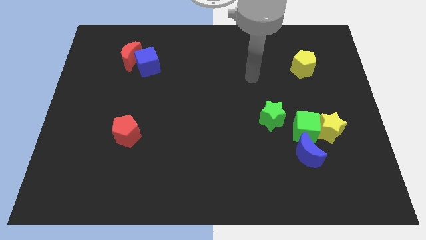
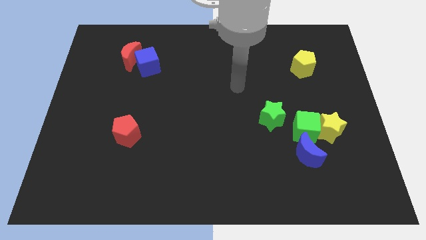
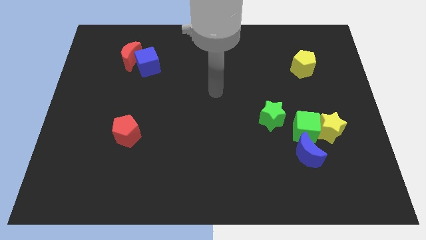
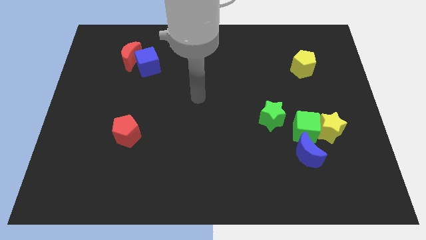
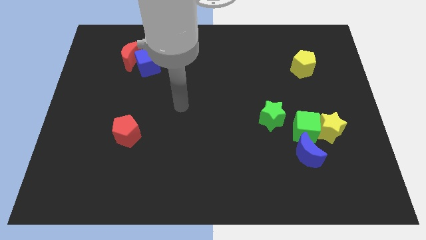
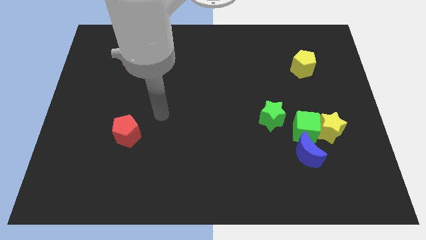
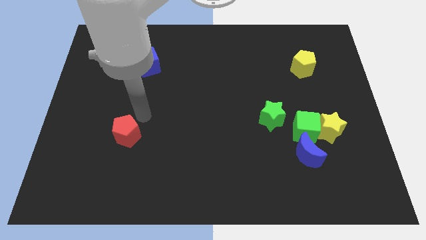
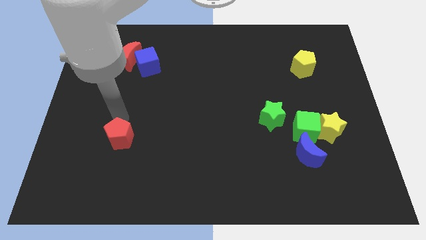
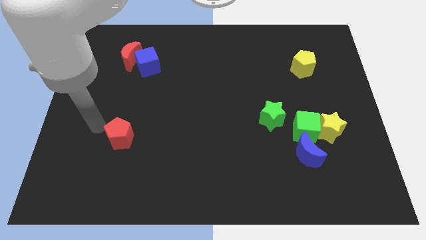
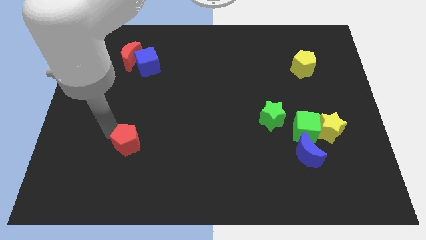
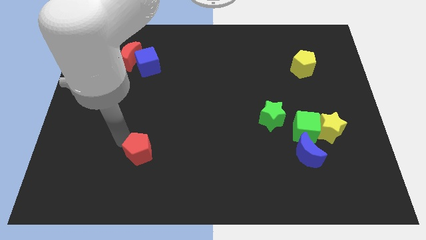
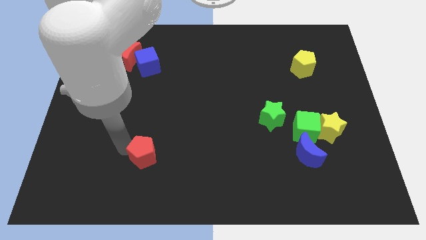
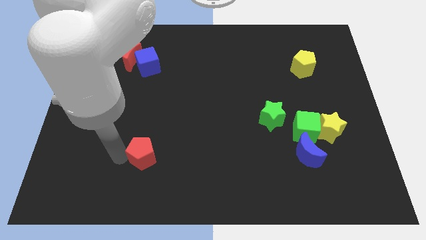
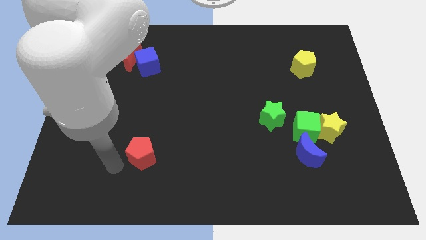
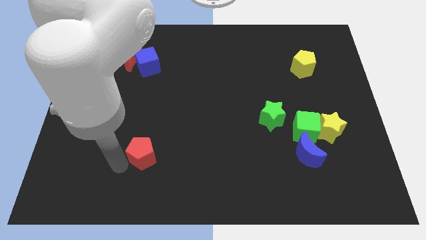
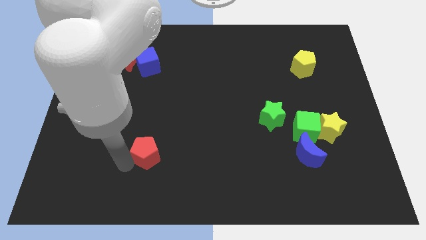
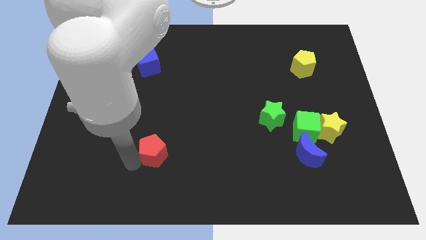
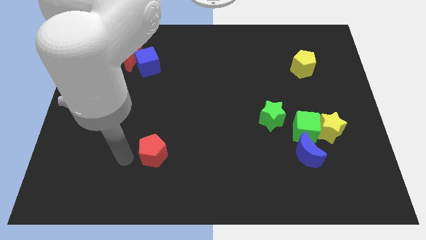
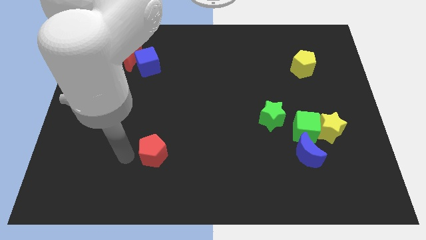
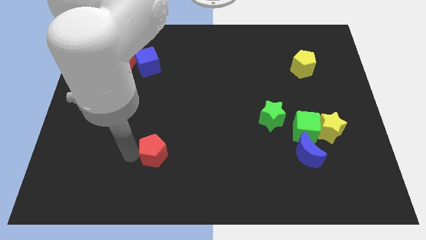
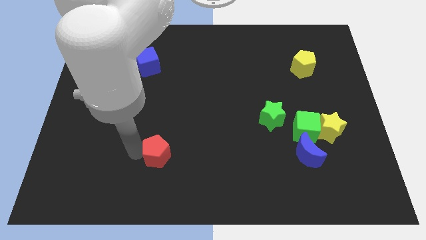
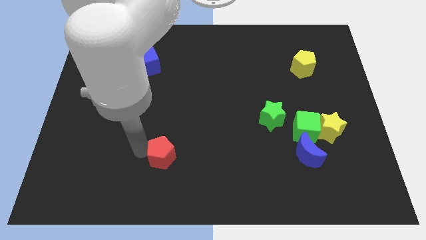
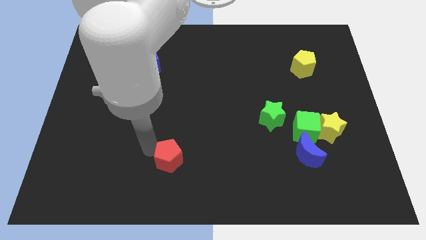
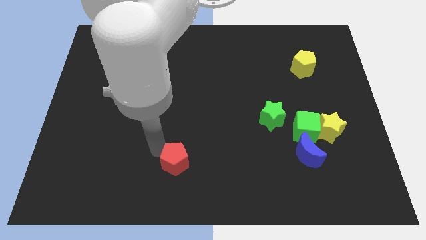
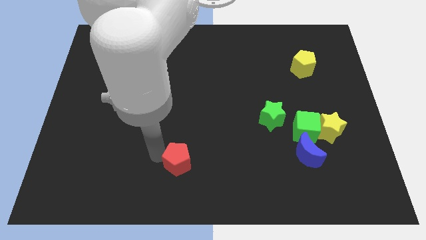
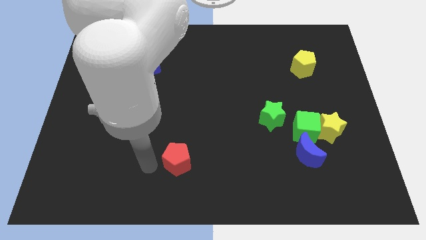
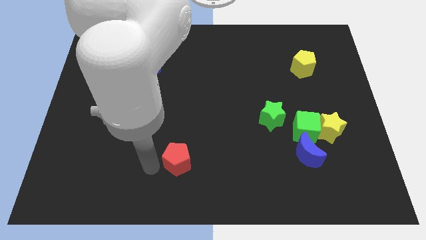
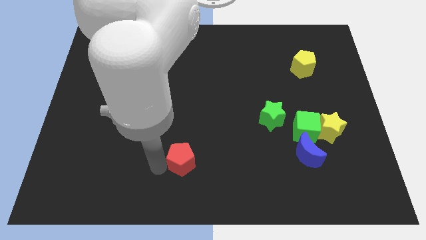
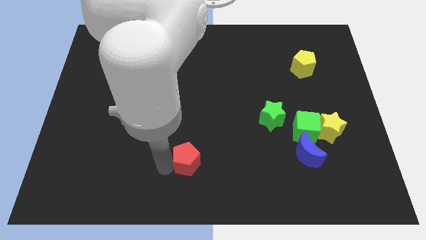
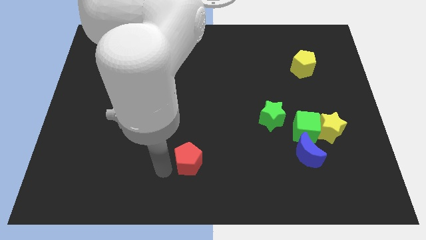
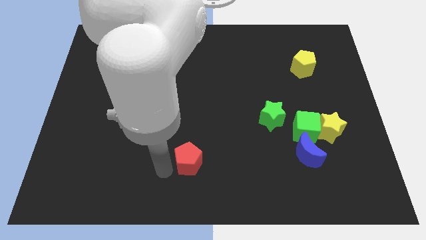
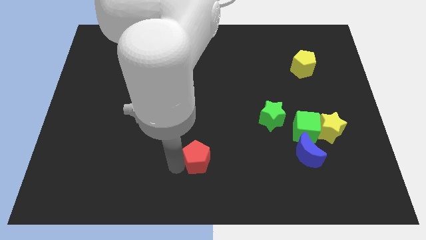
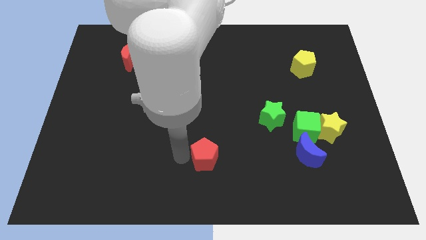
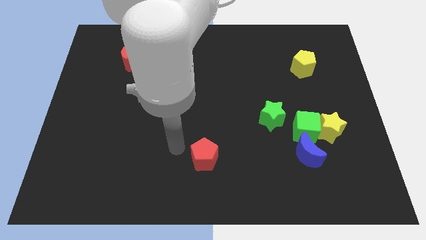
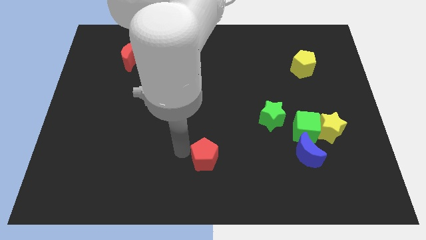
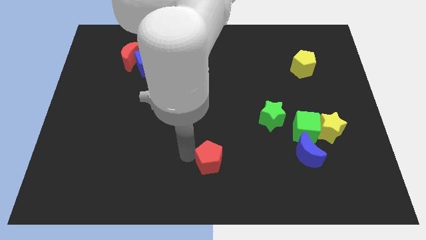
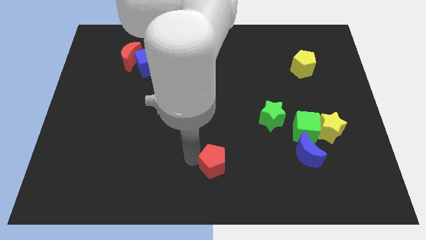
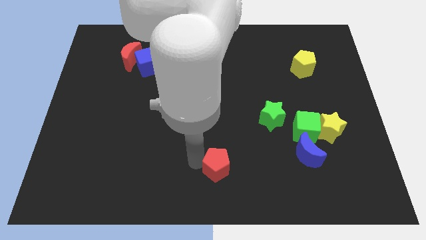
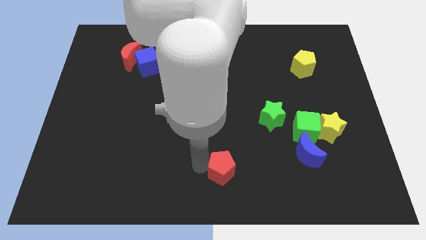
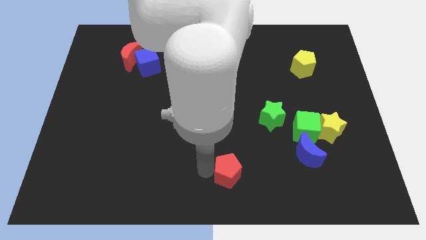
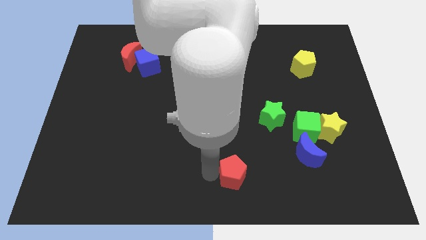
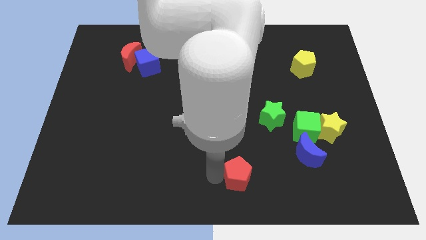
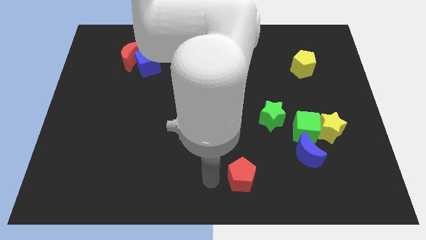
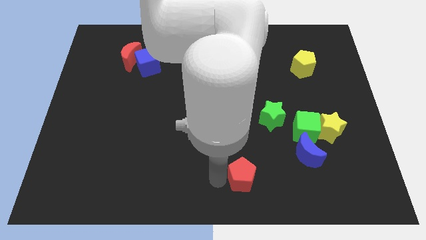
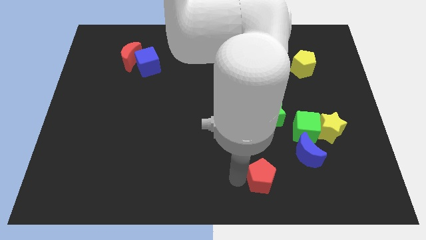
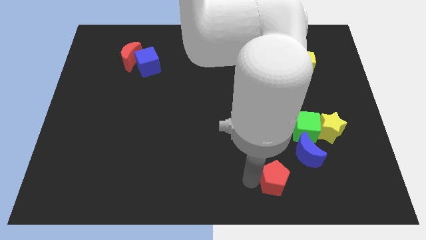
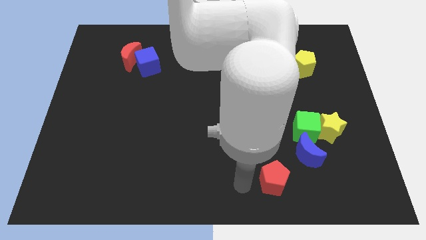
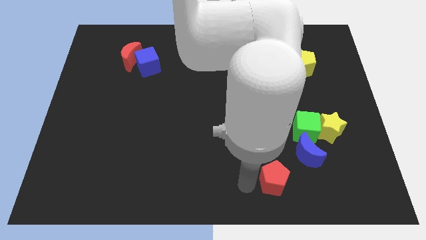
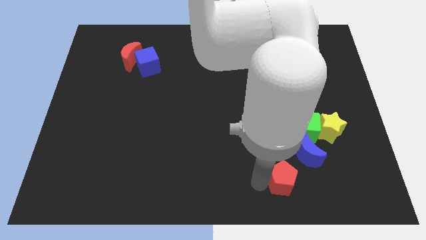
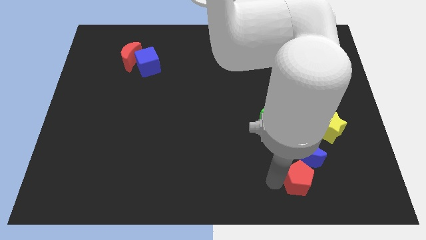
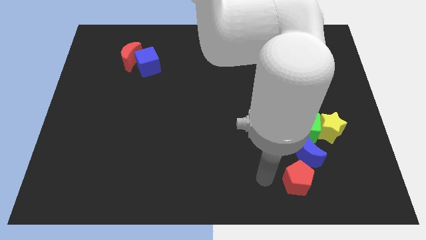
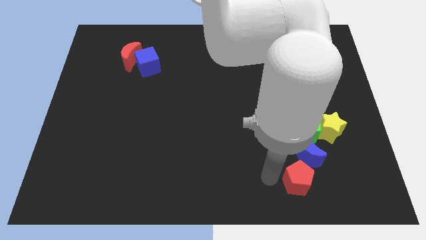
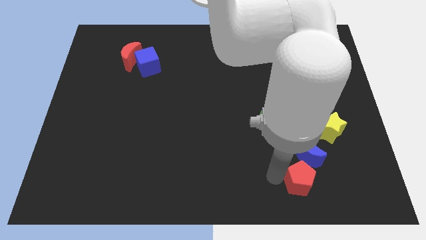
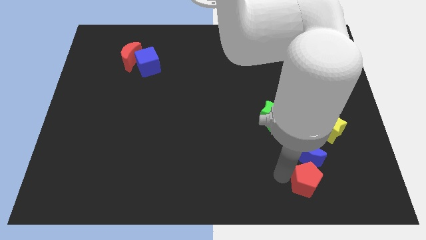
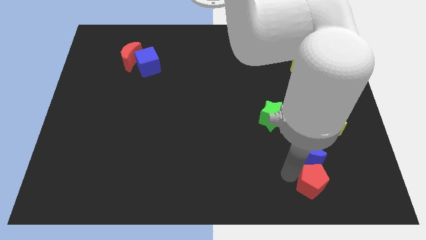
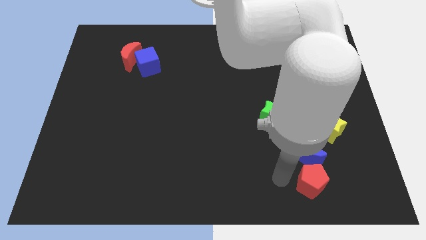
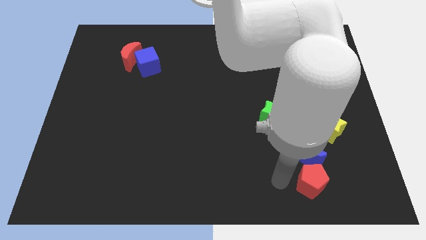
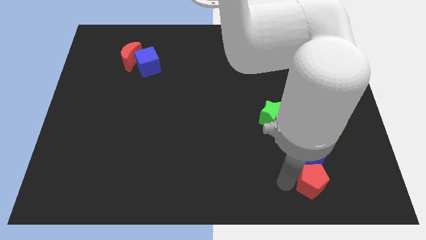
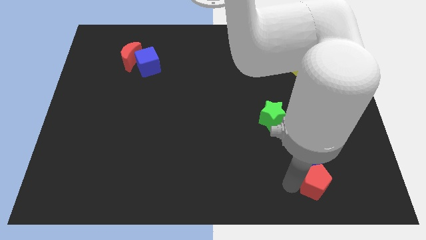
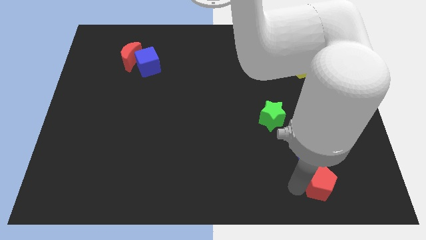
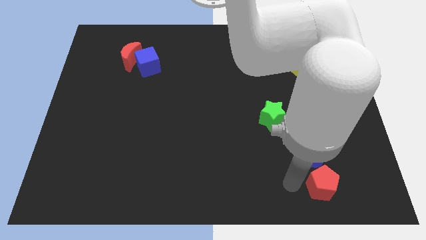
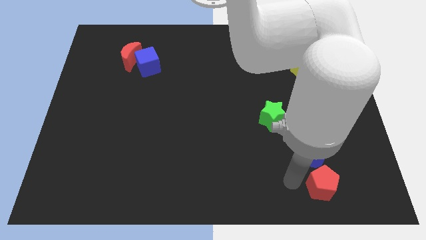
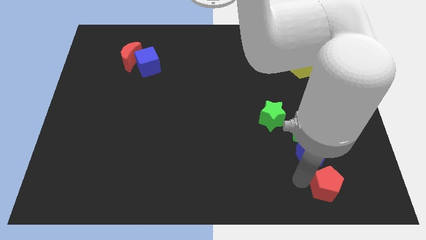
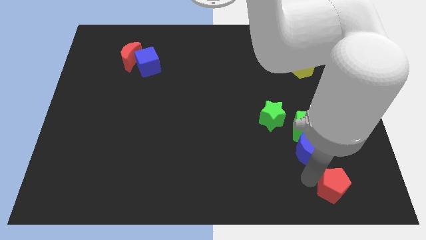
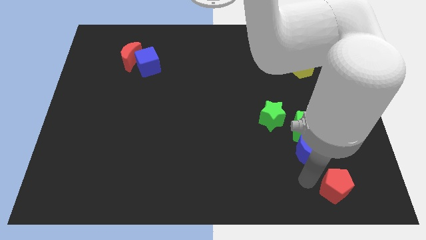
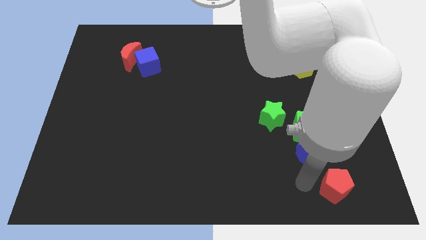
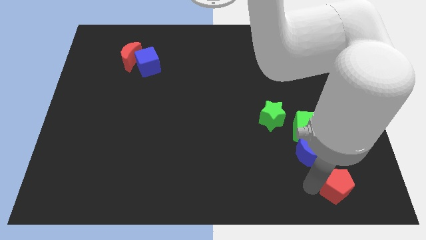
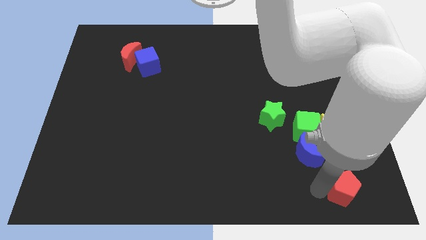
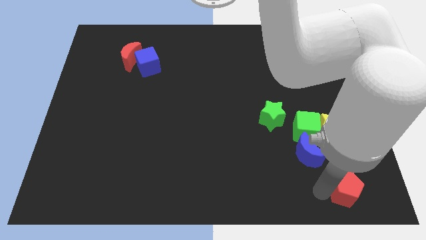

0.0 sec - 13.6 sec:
move the red pentagon to the lower right corner

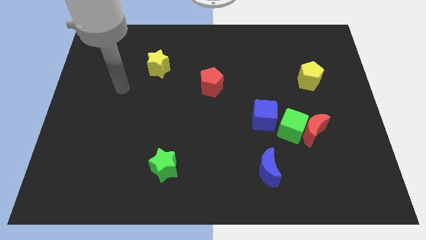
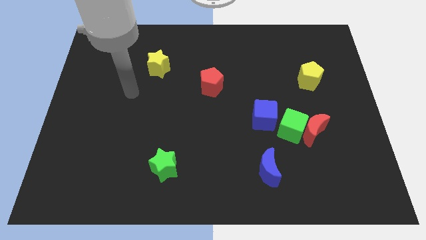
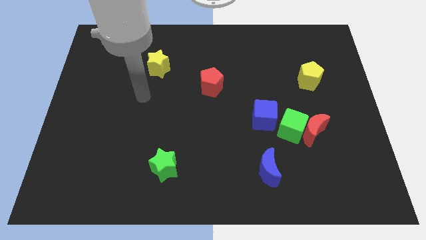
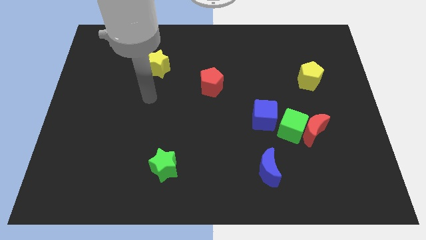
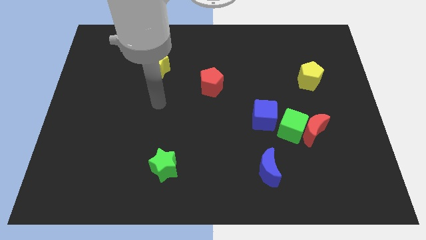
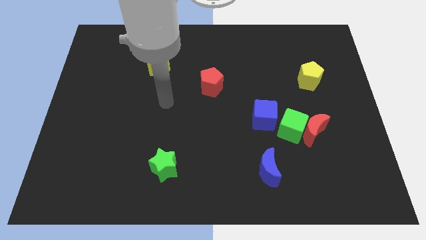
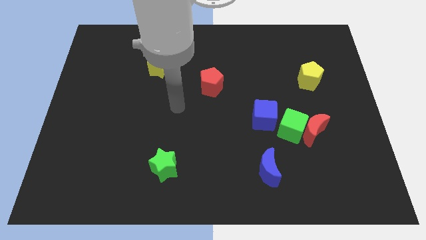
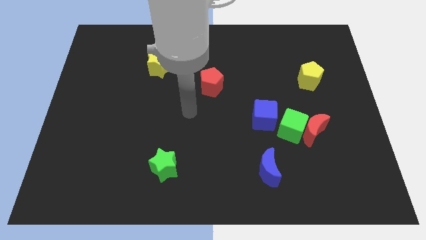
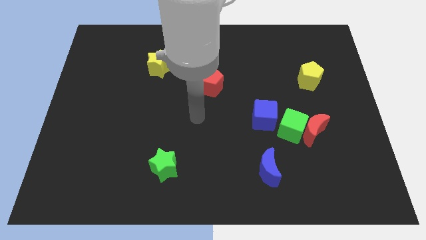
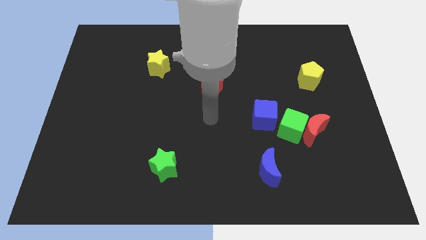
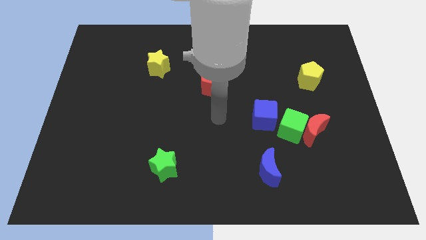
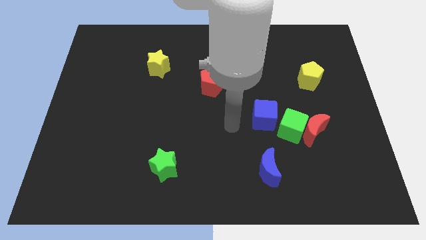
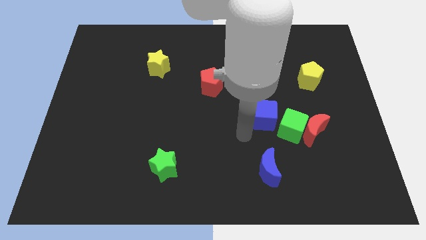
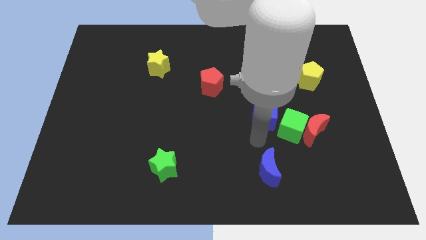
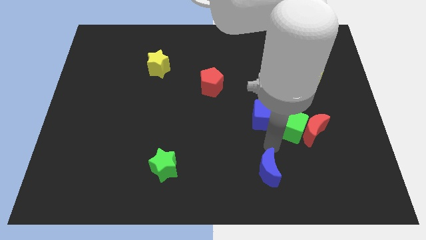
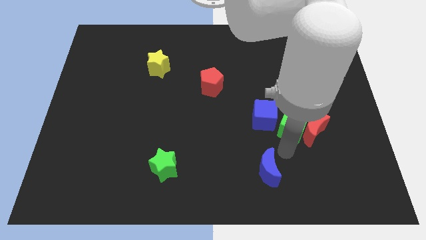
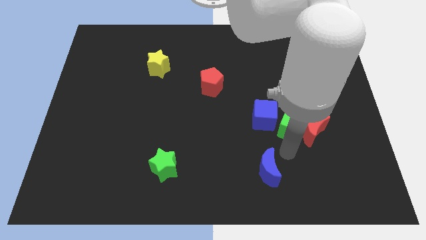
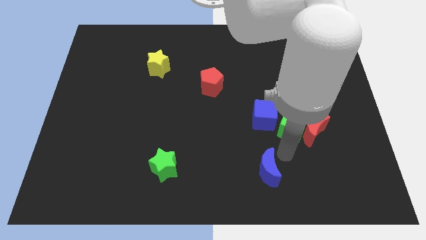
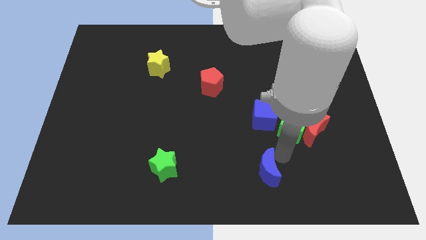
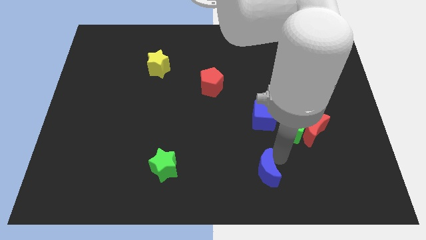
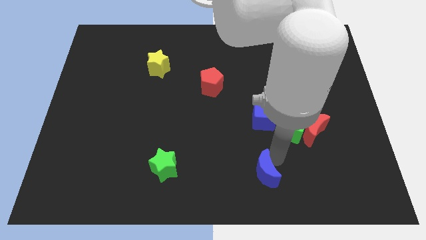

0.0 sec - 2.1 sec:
move the blue moon to the bottom side
